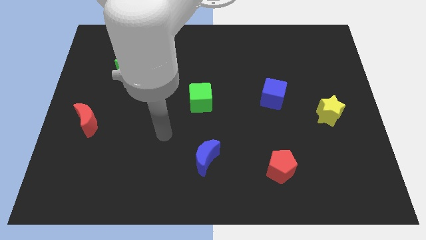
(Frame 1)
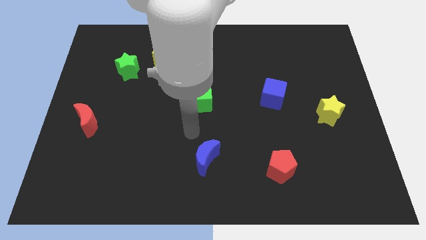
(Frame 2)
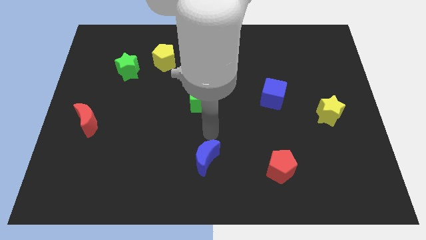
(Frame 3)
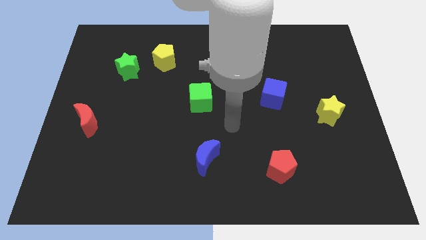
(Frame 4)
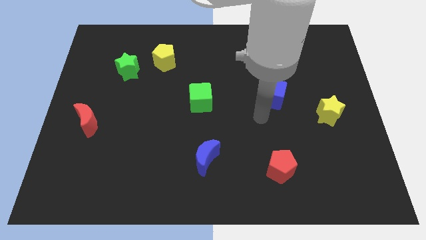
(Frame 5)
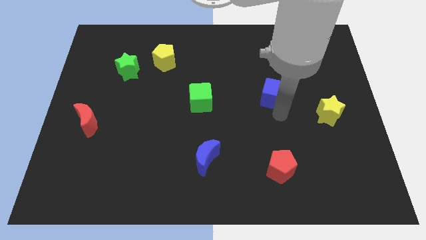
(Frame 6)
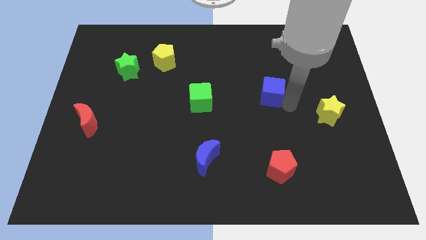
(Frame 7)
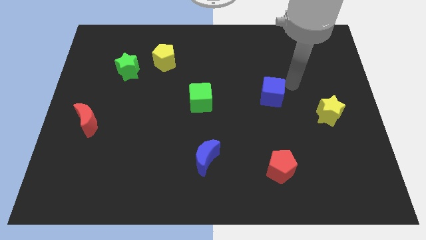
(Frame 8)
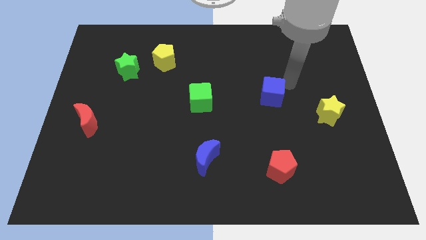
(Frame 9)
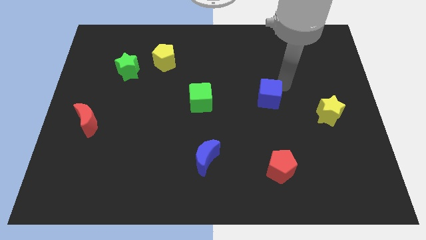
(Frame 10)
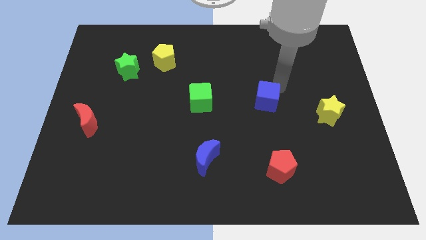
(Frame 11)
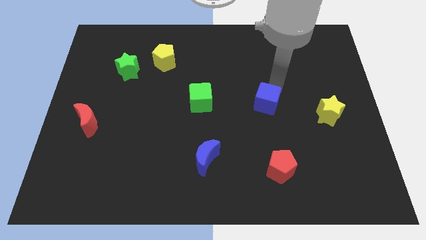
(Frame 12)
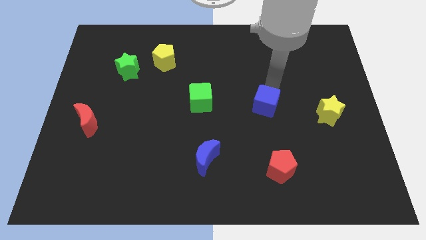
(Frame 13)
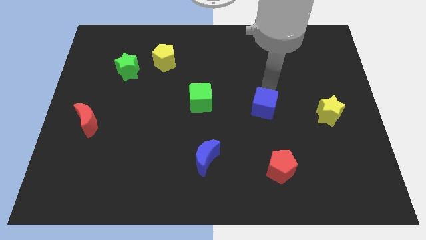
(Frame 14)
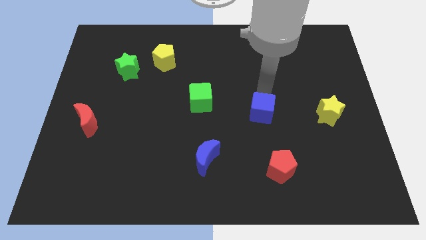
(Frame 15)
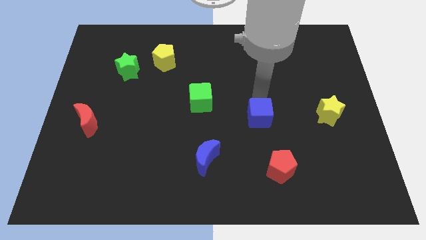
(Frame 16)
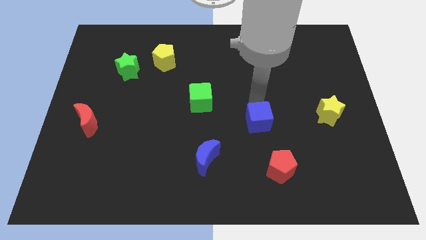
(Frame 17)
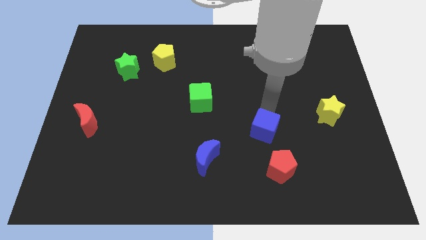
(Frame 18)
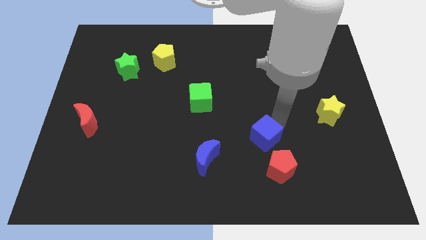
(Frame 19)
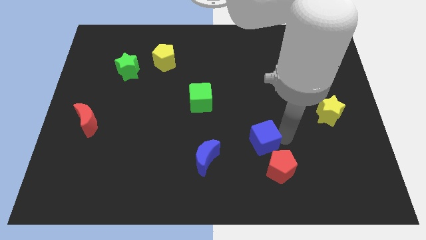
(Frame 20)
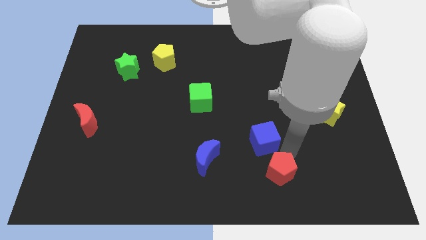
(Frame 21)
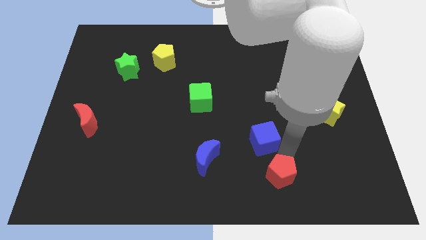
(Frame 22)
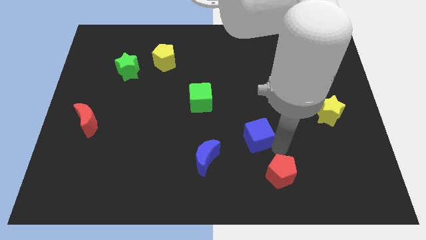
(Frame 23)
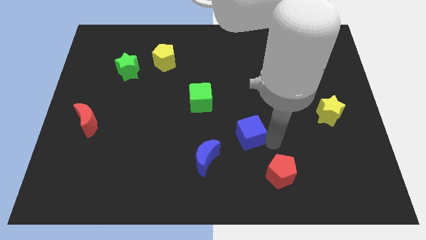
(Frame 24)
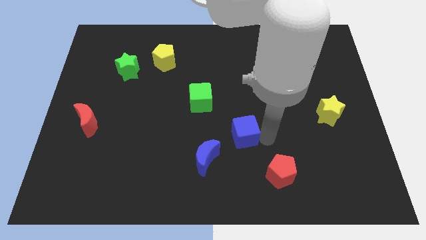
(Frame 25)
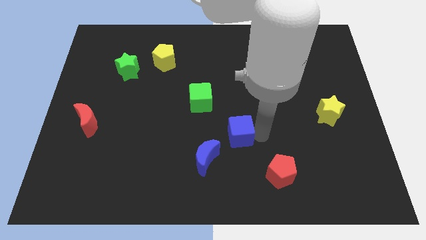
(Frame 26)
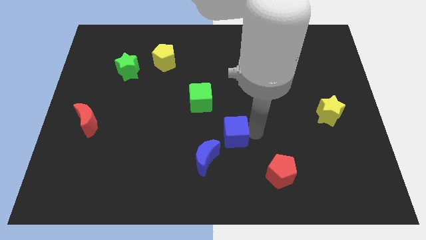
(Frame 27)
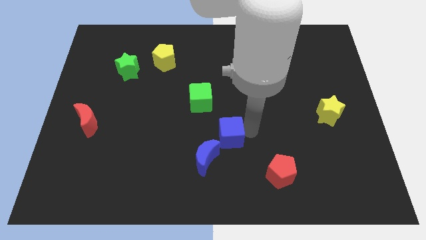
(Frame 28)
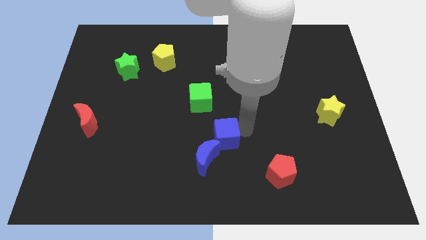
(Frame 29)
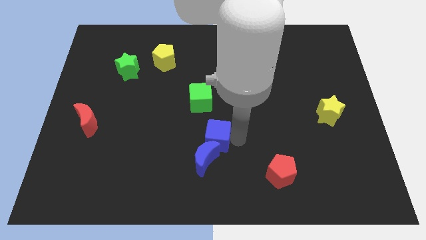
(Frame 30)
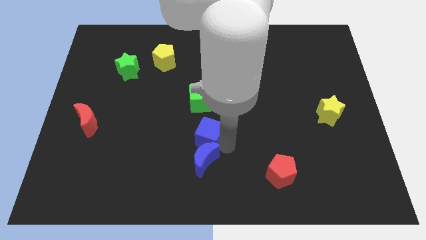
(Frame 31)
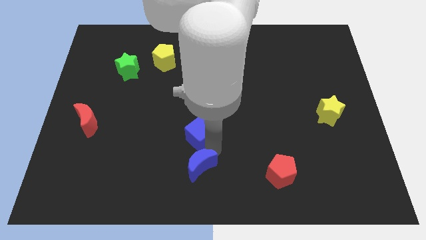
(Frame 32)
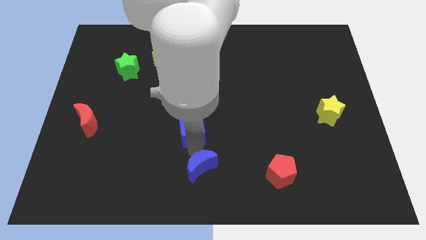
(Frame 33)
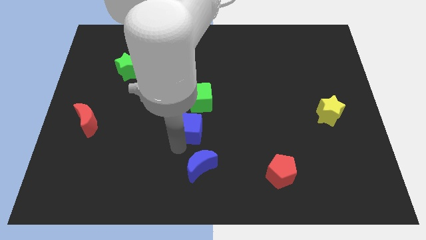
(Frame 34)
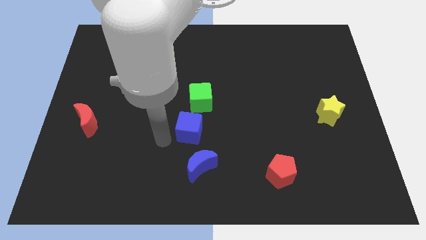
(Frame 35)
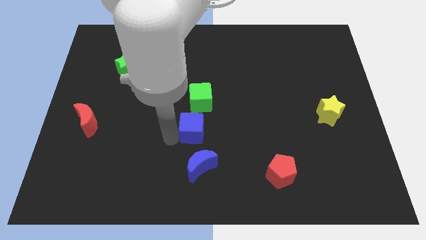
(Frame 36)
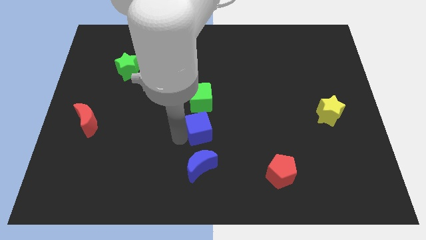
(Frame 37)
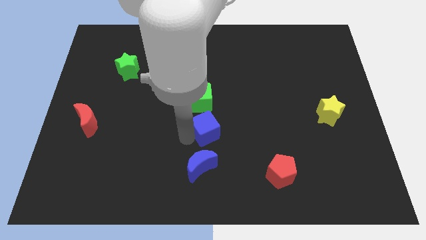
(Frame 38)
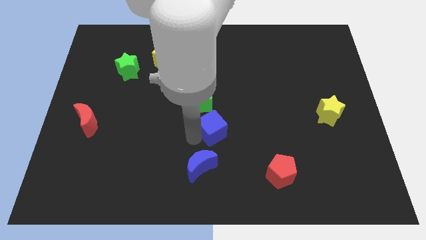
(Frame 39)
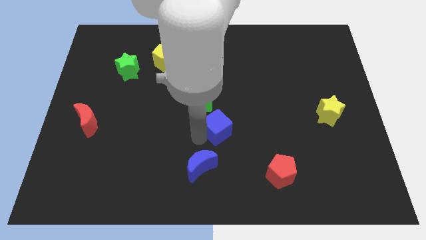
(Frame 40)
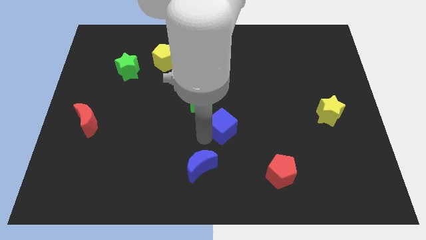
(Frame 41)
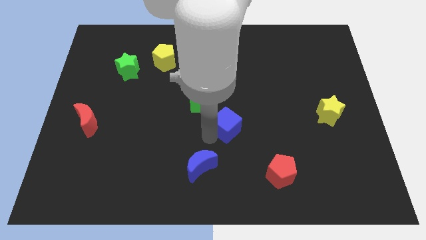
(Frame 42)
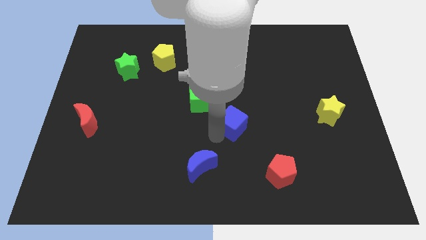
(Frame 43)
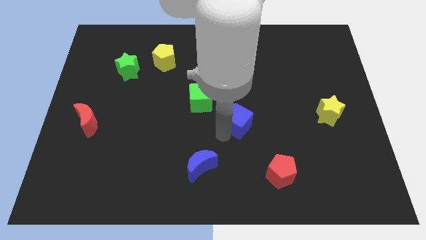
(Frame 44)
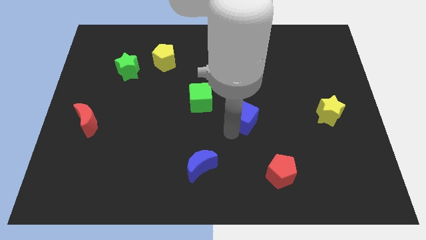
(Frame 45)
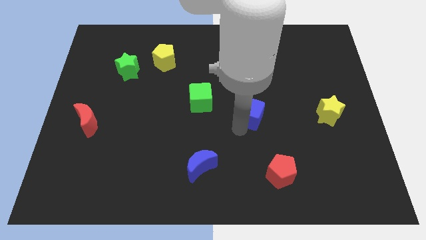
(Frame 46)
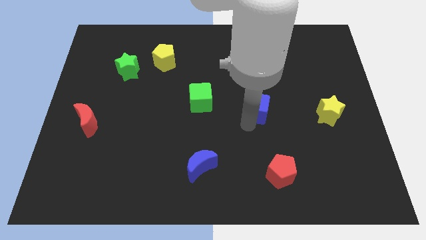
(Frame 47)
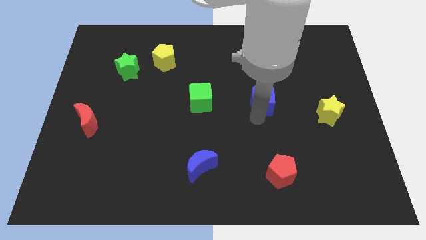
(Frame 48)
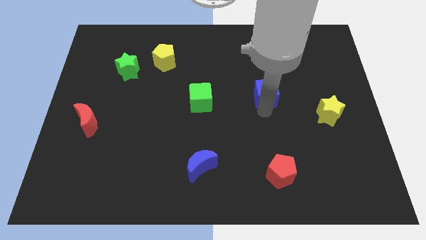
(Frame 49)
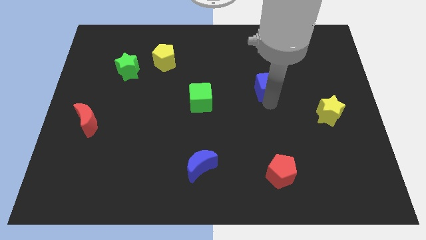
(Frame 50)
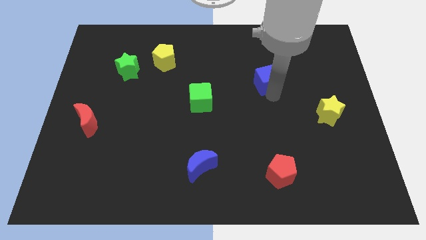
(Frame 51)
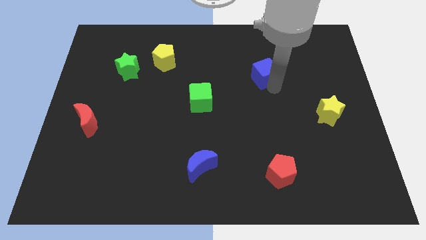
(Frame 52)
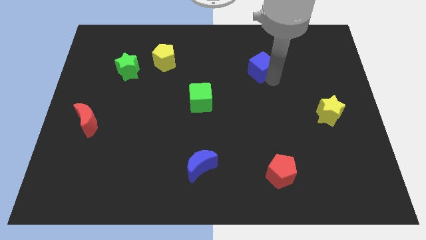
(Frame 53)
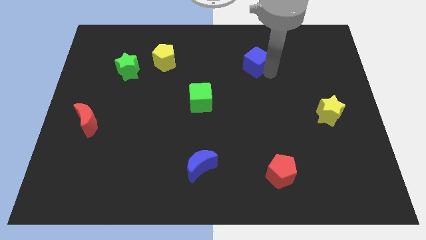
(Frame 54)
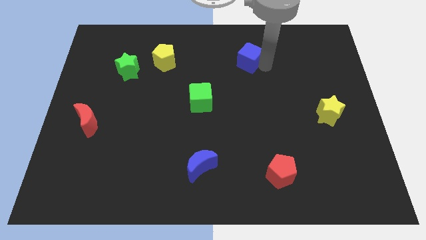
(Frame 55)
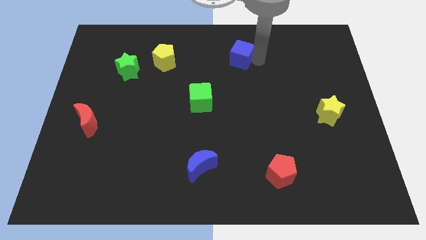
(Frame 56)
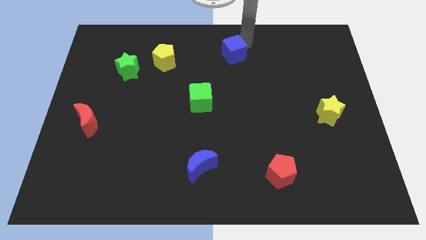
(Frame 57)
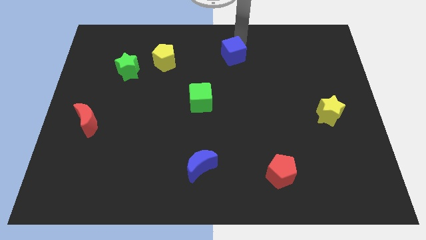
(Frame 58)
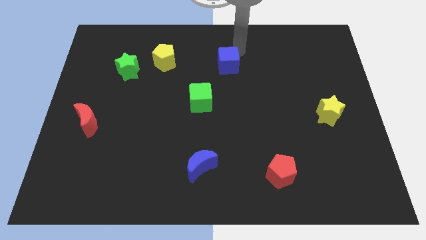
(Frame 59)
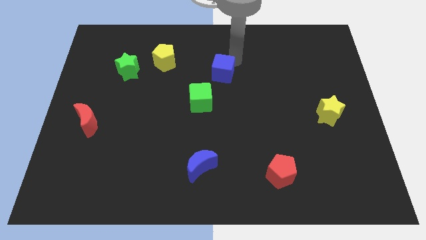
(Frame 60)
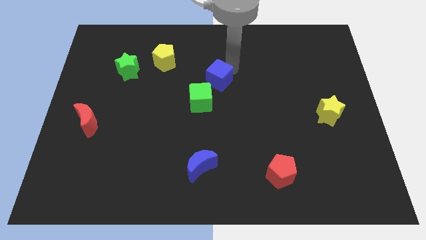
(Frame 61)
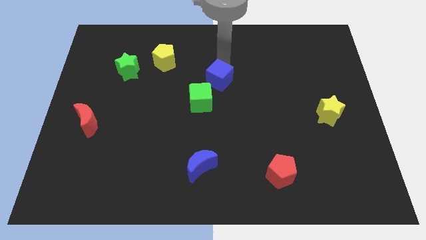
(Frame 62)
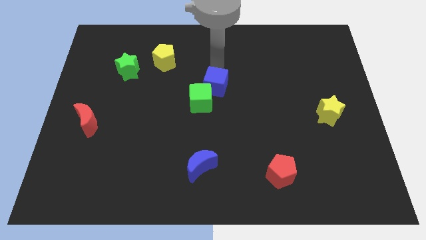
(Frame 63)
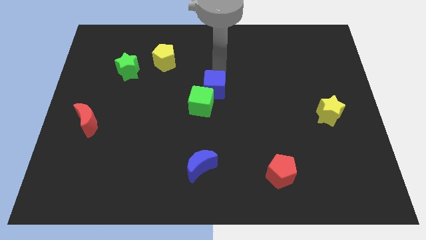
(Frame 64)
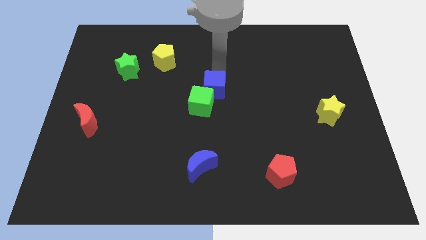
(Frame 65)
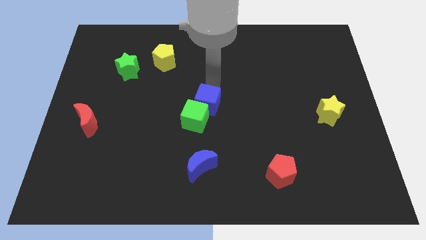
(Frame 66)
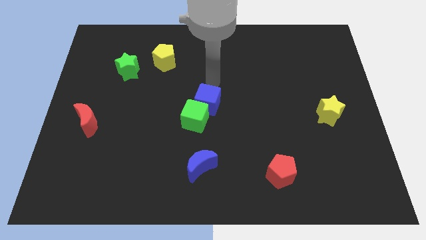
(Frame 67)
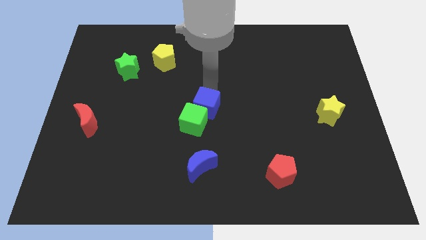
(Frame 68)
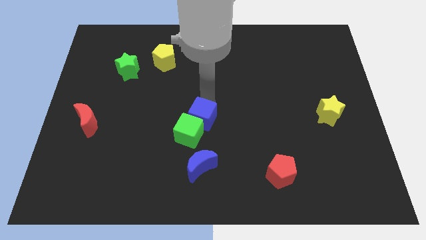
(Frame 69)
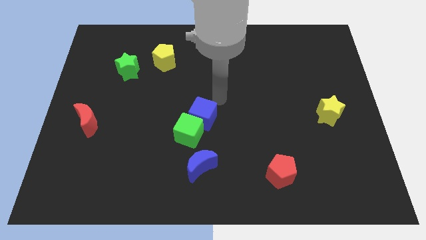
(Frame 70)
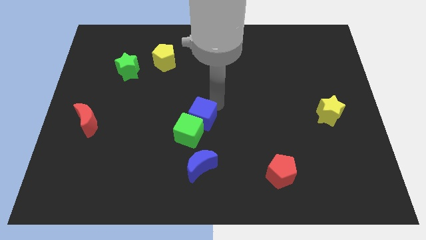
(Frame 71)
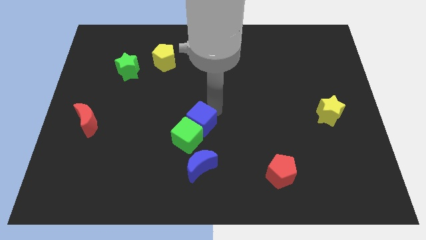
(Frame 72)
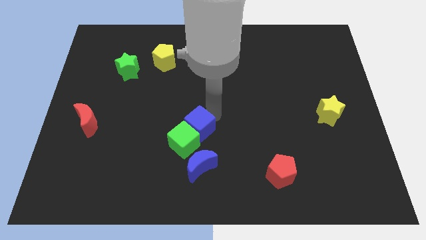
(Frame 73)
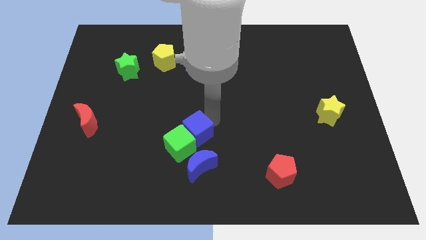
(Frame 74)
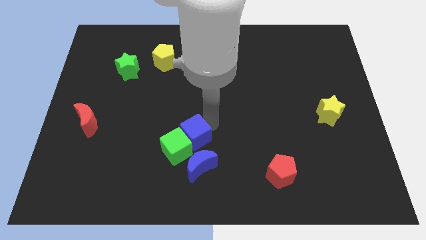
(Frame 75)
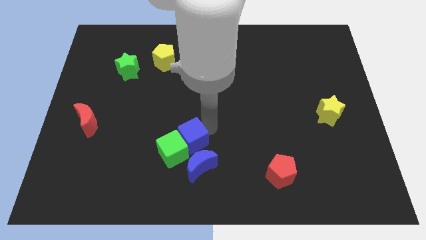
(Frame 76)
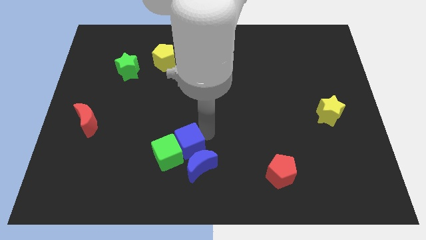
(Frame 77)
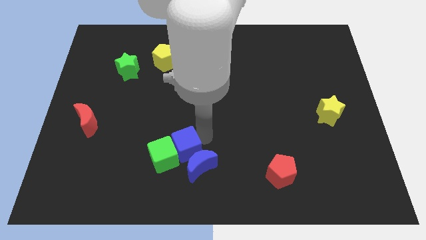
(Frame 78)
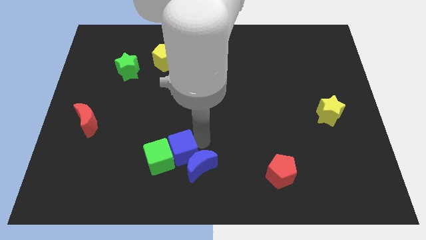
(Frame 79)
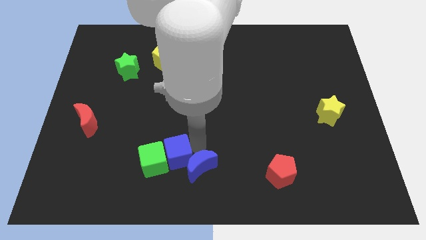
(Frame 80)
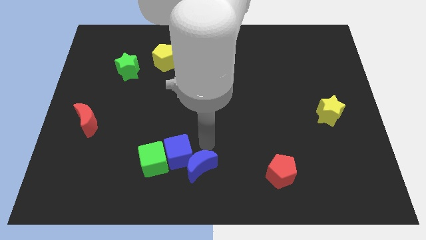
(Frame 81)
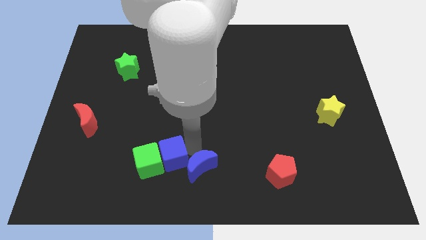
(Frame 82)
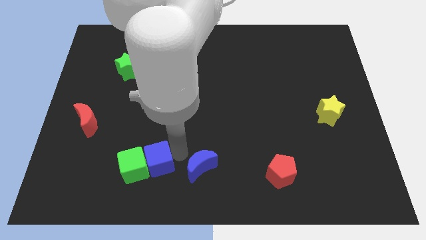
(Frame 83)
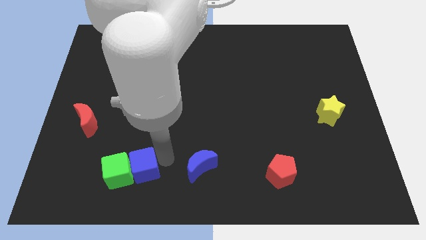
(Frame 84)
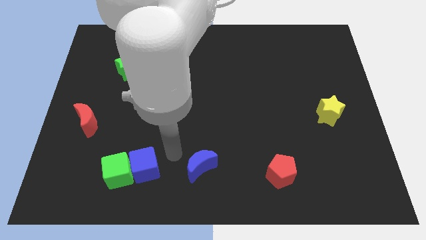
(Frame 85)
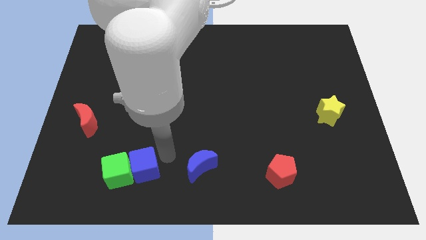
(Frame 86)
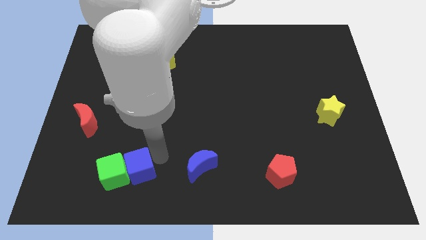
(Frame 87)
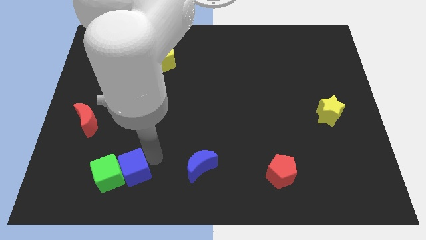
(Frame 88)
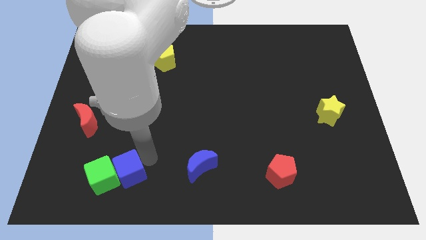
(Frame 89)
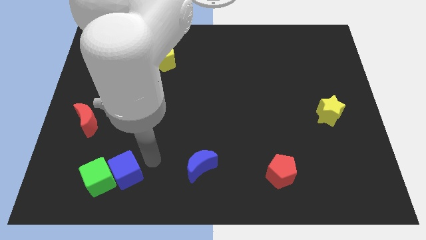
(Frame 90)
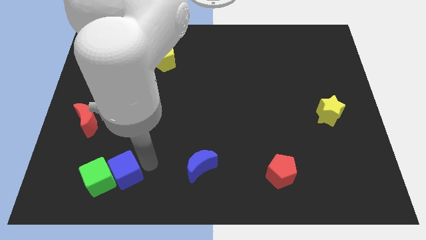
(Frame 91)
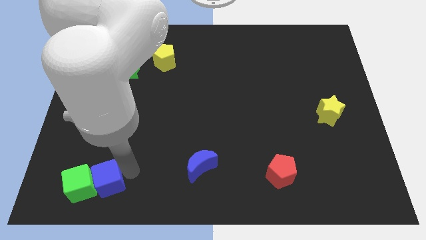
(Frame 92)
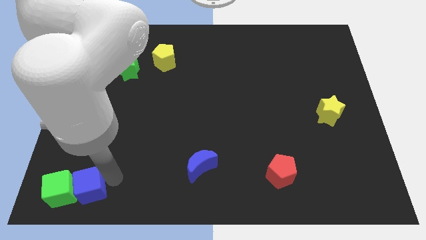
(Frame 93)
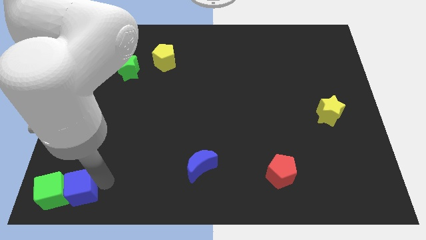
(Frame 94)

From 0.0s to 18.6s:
move the blue cube to the bottom left of the board
